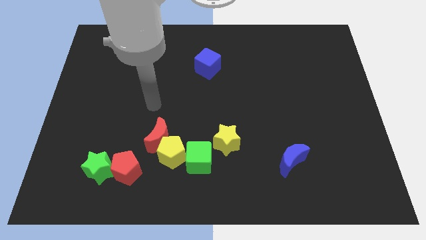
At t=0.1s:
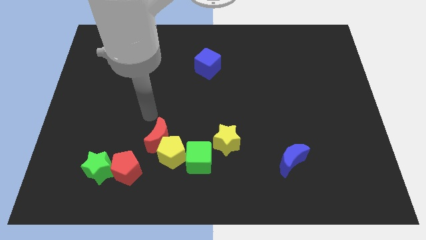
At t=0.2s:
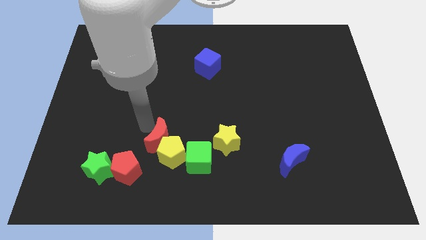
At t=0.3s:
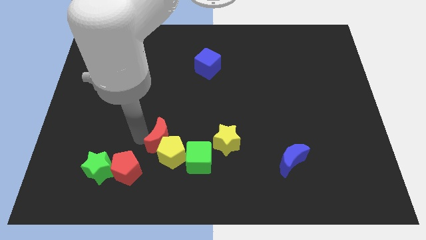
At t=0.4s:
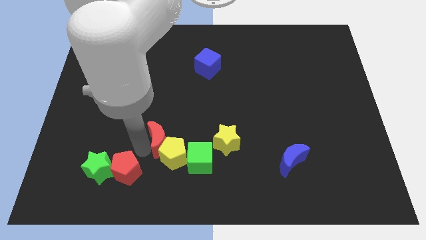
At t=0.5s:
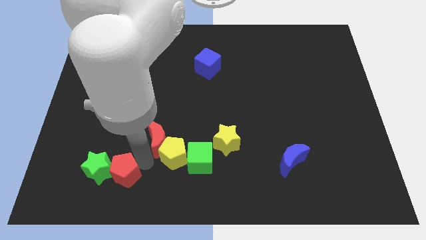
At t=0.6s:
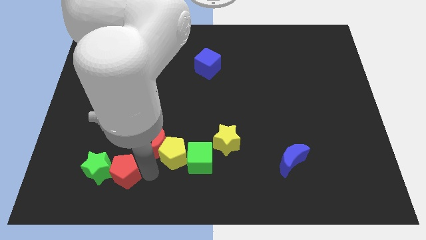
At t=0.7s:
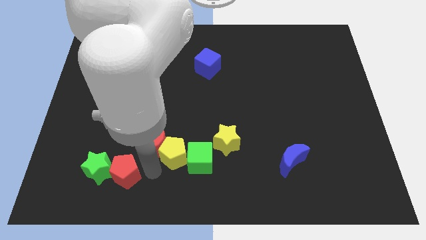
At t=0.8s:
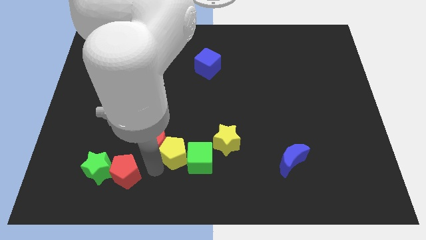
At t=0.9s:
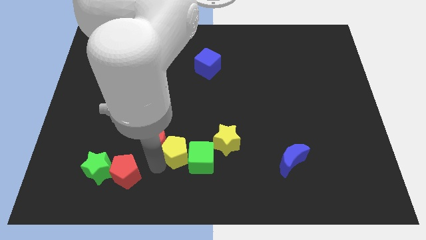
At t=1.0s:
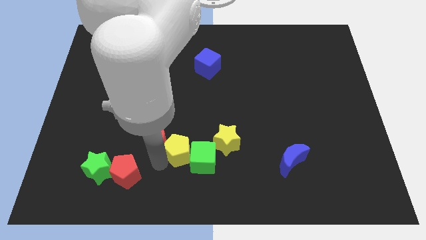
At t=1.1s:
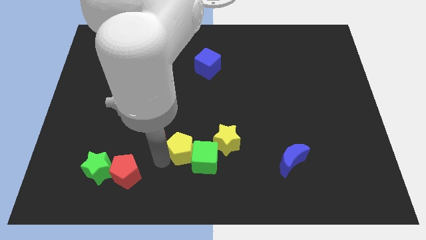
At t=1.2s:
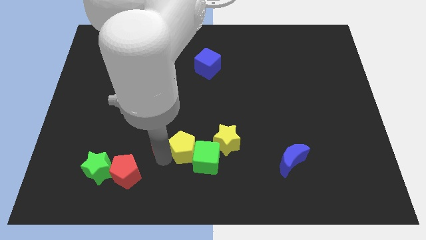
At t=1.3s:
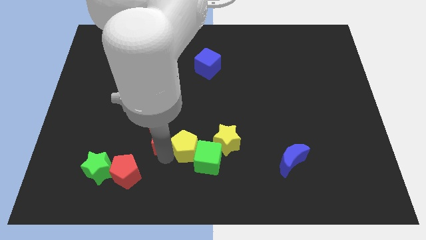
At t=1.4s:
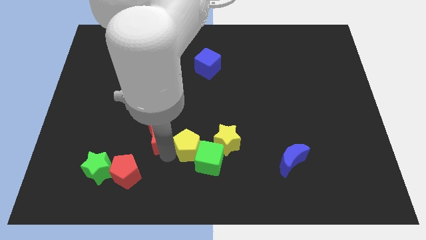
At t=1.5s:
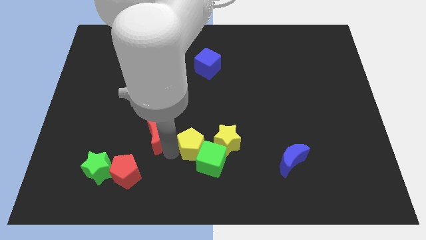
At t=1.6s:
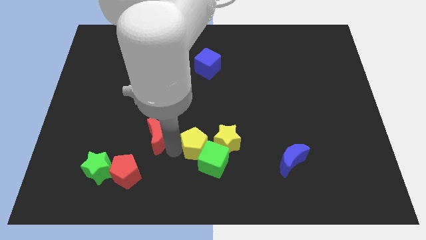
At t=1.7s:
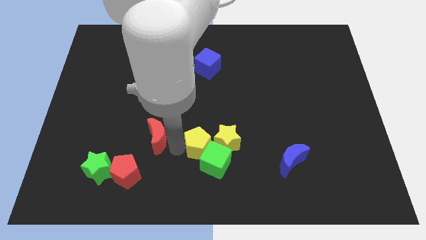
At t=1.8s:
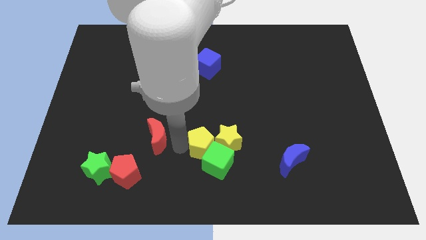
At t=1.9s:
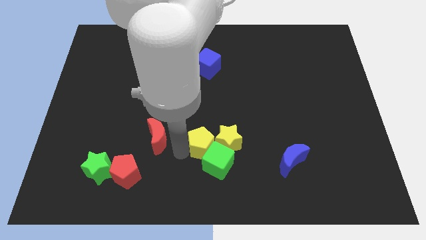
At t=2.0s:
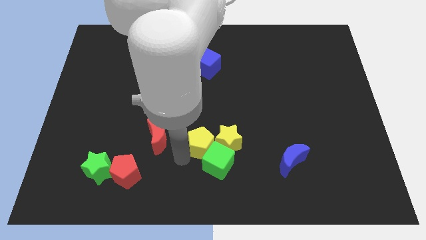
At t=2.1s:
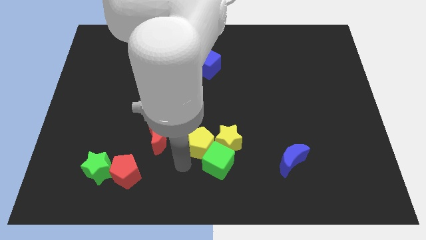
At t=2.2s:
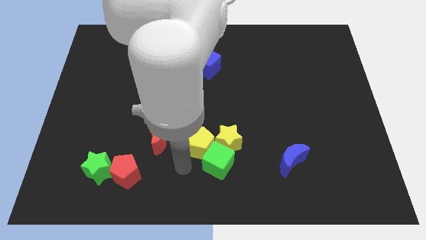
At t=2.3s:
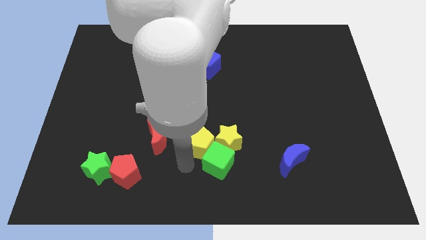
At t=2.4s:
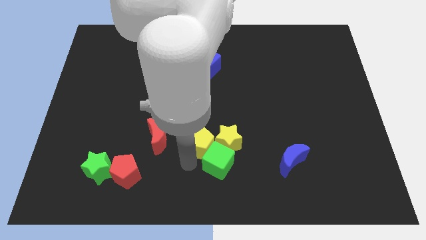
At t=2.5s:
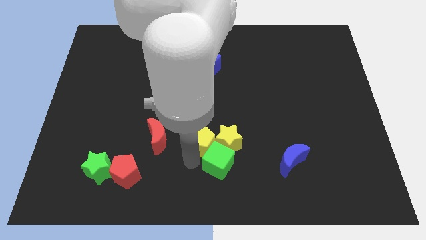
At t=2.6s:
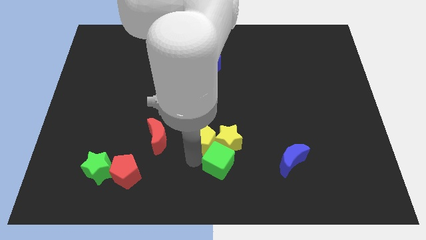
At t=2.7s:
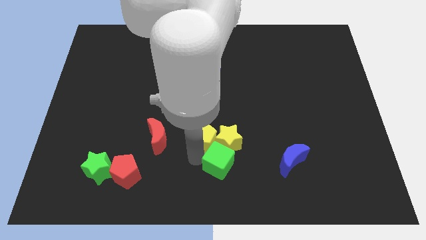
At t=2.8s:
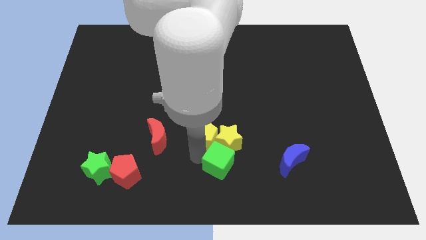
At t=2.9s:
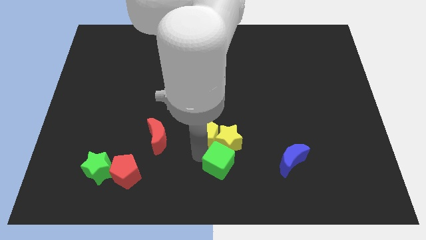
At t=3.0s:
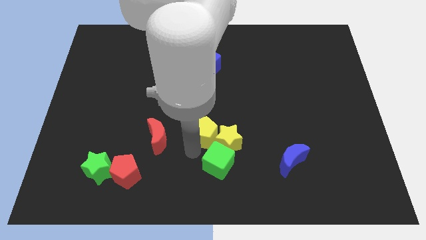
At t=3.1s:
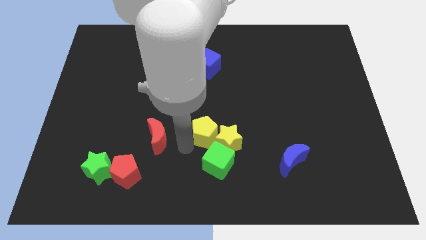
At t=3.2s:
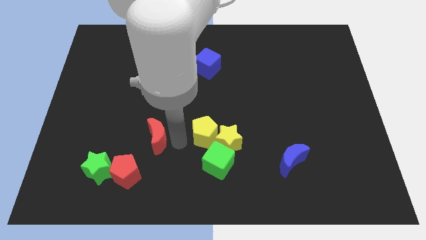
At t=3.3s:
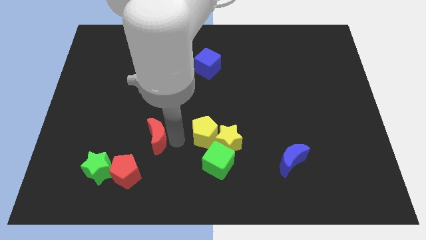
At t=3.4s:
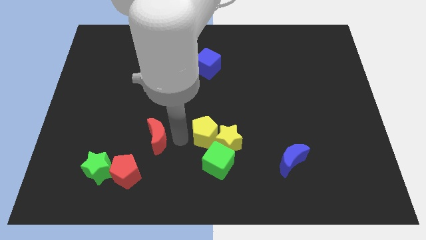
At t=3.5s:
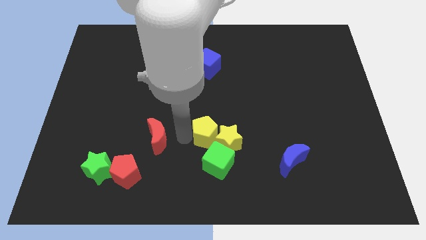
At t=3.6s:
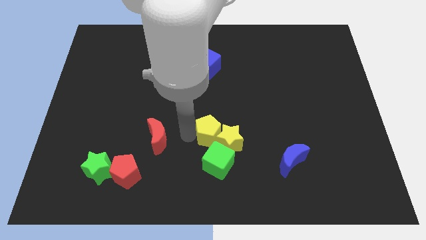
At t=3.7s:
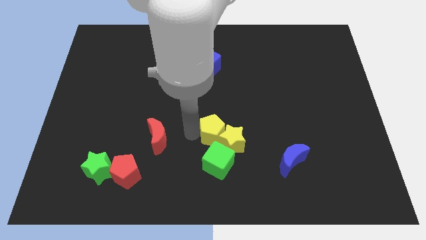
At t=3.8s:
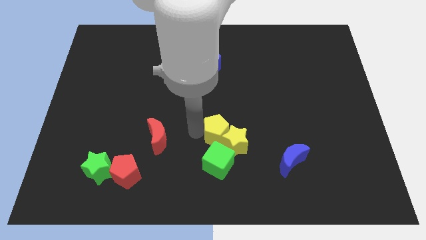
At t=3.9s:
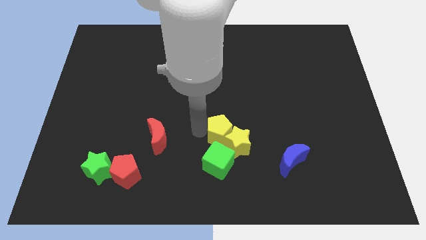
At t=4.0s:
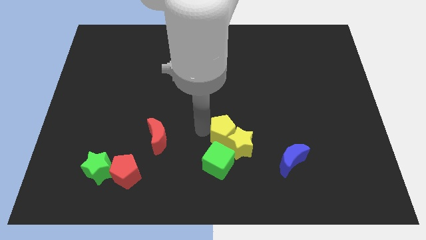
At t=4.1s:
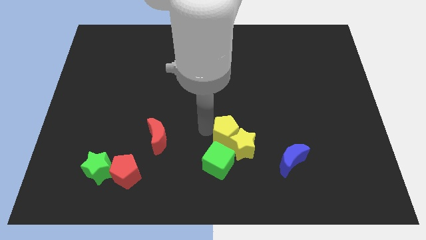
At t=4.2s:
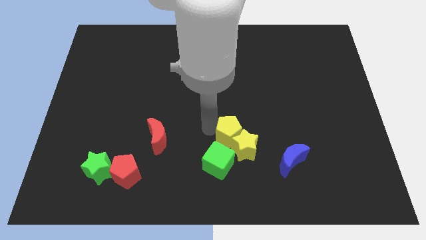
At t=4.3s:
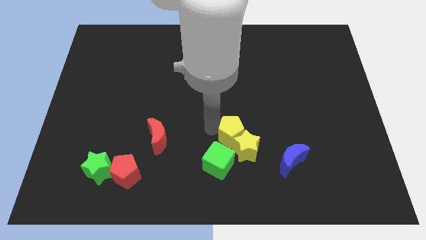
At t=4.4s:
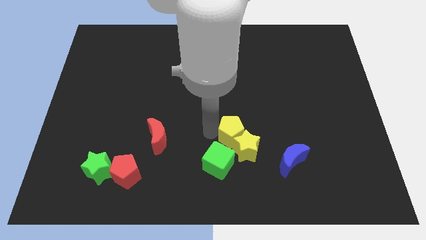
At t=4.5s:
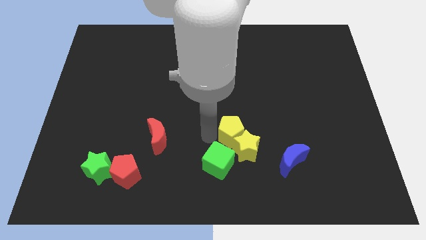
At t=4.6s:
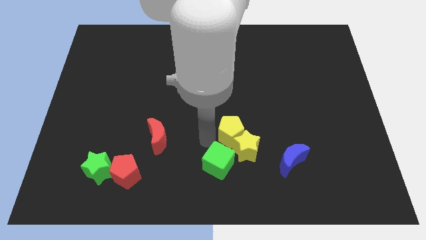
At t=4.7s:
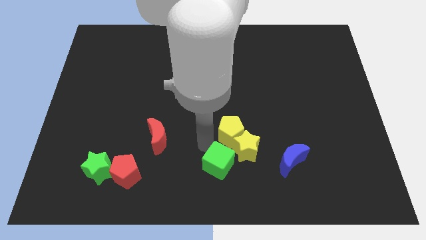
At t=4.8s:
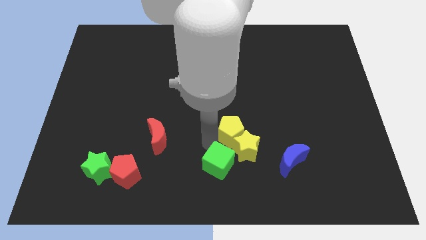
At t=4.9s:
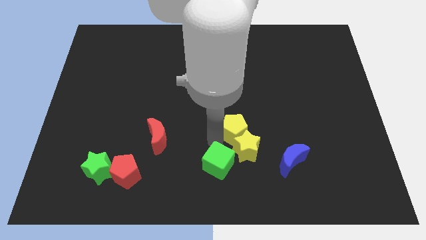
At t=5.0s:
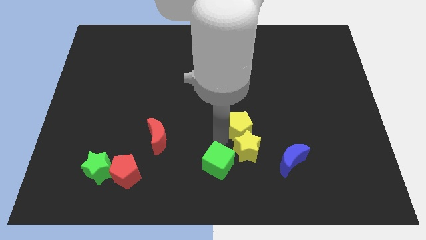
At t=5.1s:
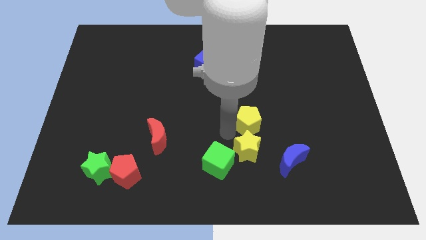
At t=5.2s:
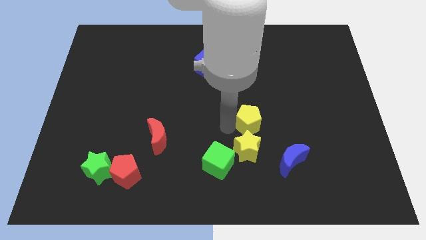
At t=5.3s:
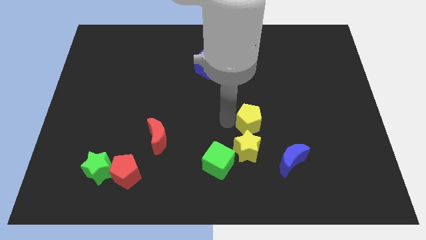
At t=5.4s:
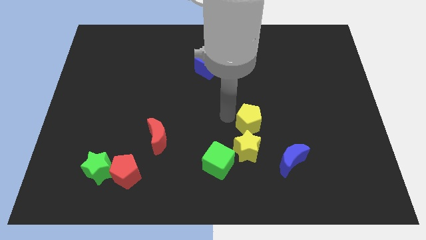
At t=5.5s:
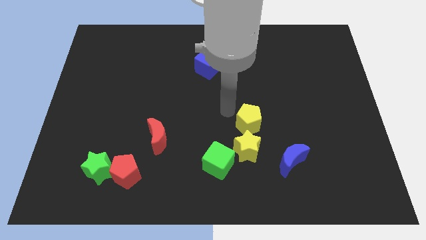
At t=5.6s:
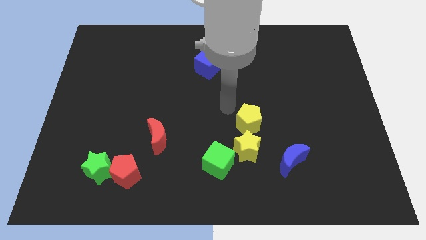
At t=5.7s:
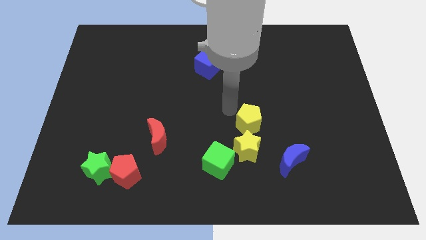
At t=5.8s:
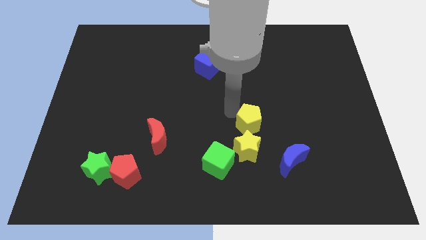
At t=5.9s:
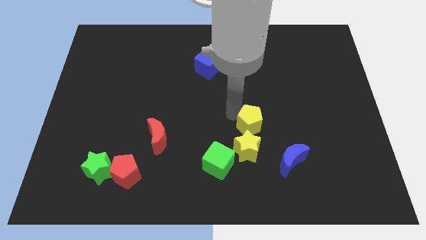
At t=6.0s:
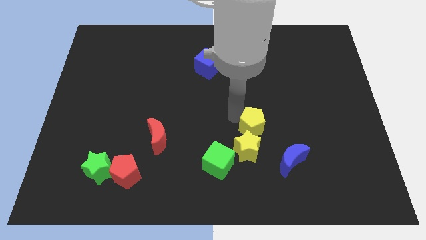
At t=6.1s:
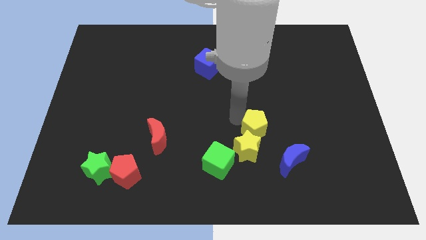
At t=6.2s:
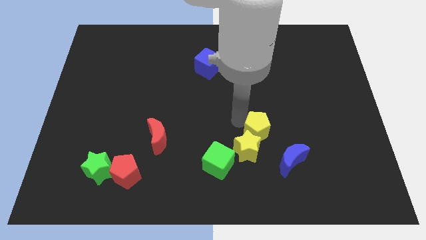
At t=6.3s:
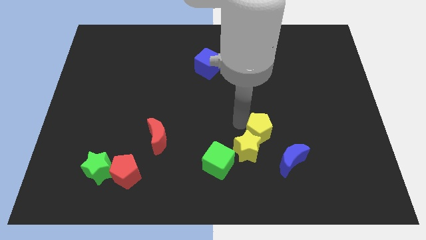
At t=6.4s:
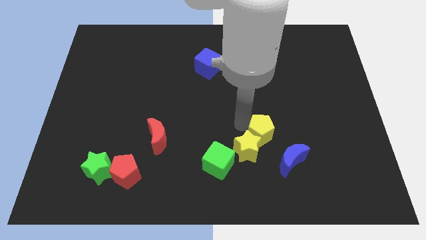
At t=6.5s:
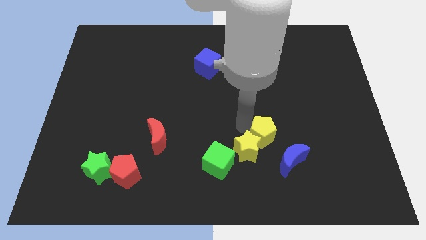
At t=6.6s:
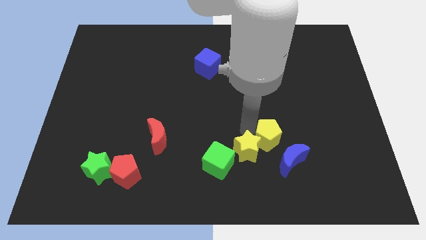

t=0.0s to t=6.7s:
push the yellow pentagon to the right

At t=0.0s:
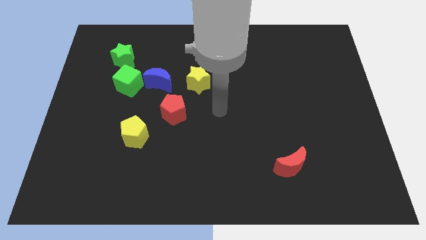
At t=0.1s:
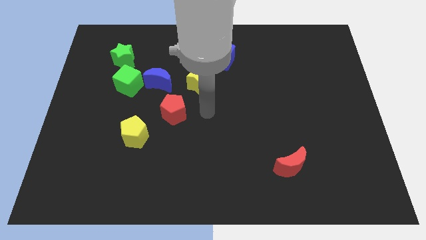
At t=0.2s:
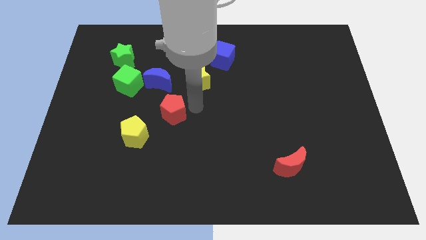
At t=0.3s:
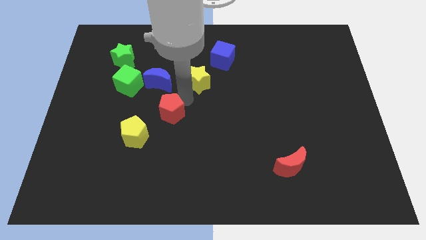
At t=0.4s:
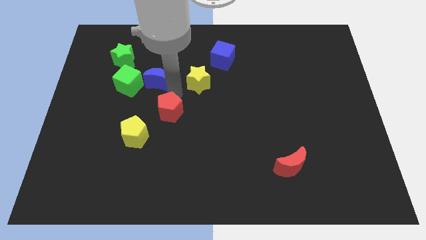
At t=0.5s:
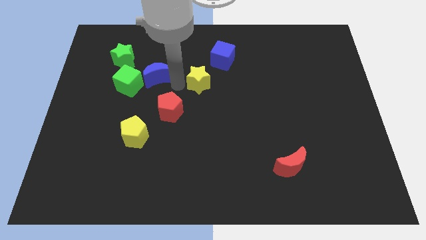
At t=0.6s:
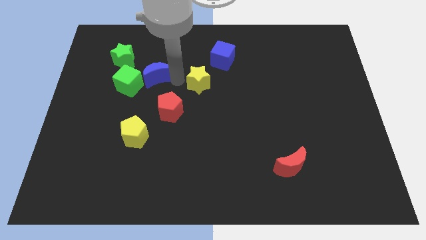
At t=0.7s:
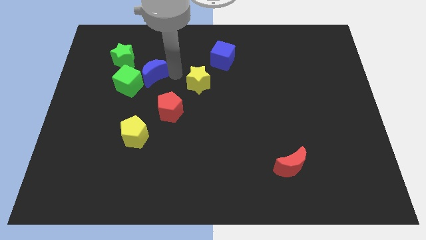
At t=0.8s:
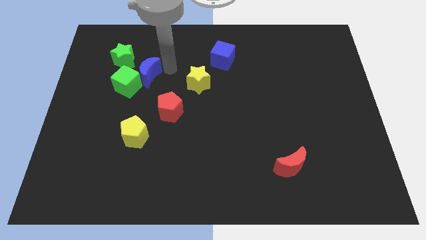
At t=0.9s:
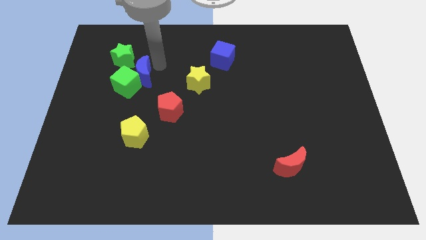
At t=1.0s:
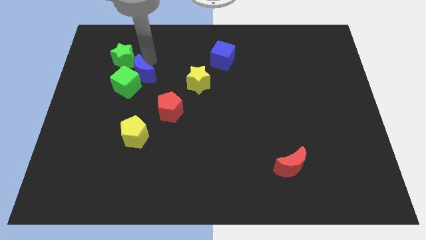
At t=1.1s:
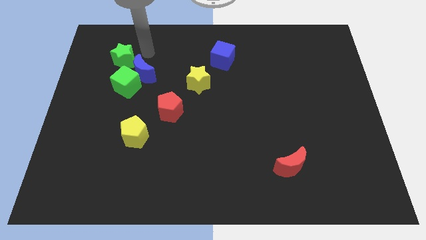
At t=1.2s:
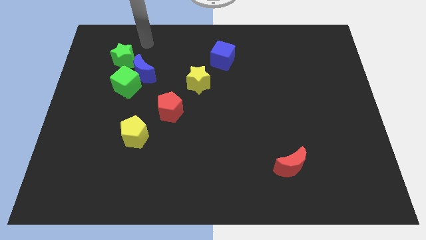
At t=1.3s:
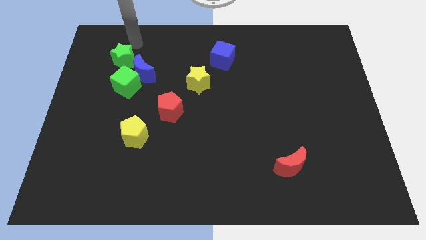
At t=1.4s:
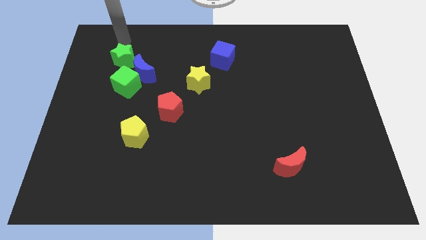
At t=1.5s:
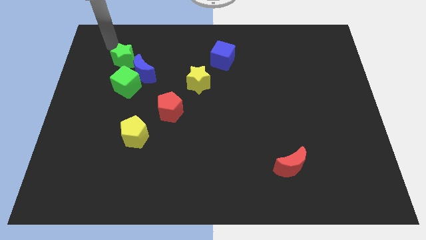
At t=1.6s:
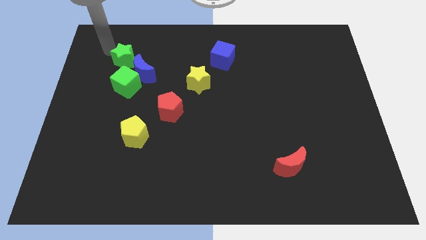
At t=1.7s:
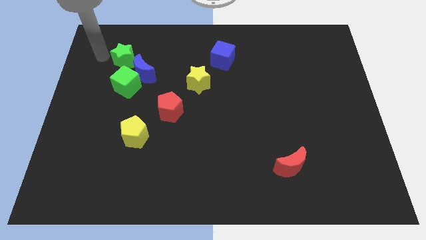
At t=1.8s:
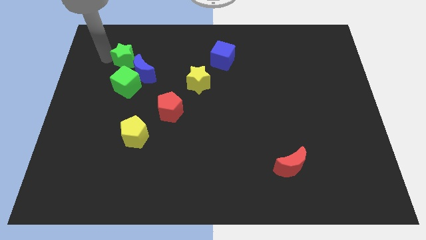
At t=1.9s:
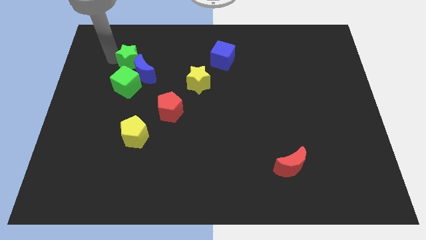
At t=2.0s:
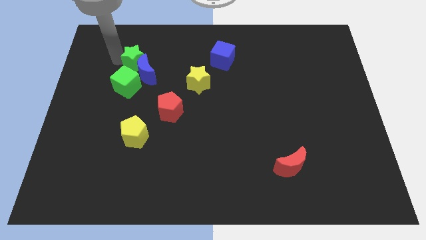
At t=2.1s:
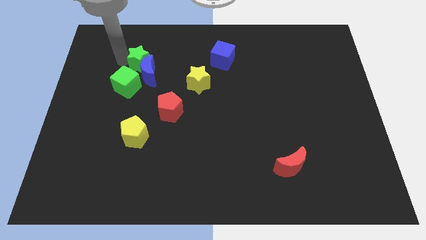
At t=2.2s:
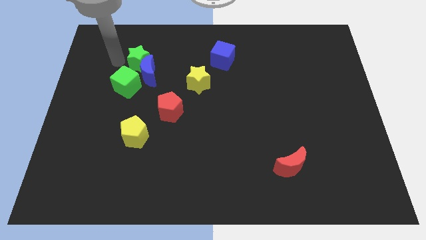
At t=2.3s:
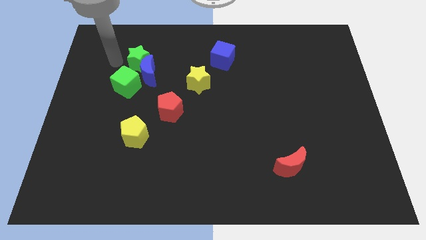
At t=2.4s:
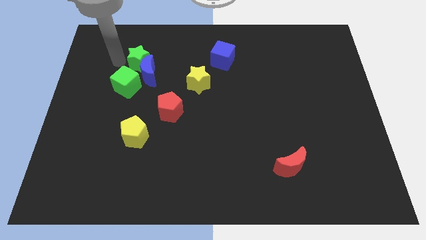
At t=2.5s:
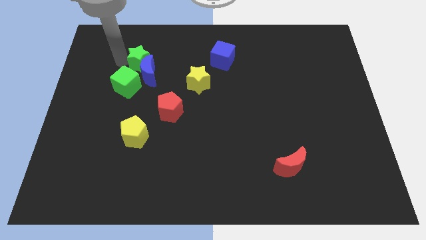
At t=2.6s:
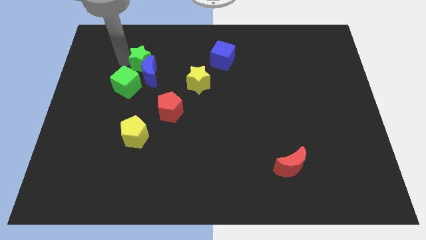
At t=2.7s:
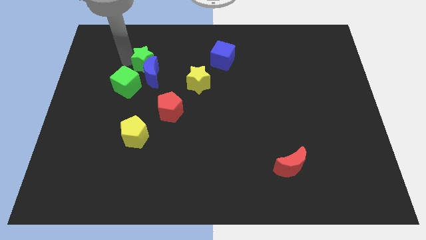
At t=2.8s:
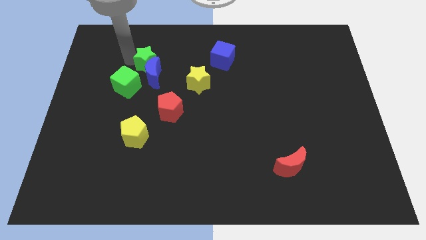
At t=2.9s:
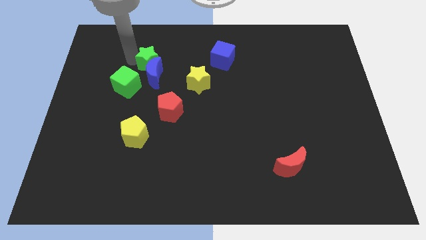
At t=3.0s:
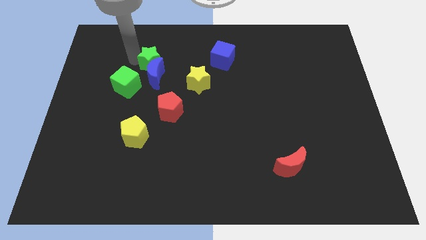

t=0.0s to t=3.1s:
slightly move the green star to the right
